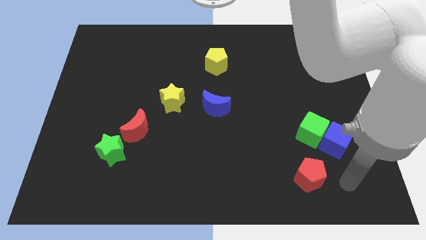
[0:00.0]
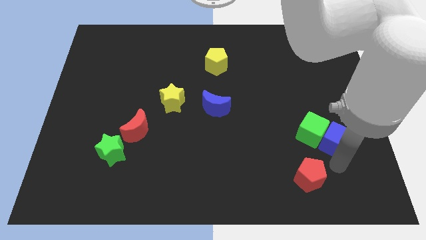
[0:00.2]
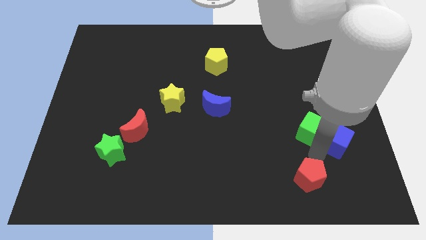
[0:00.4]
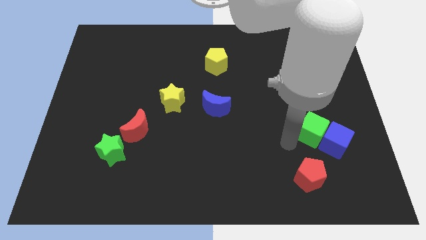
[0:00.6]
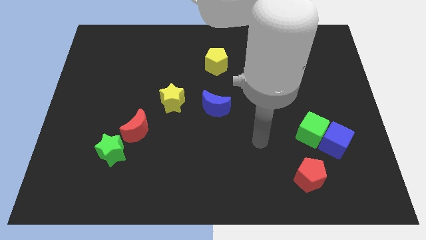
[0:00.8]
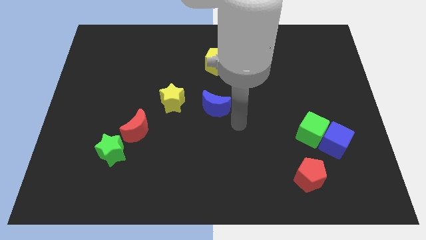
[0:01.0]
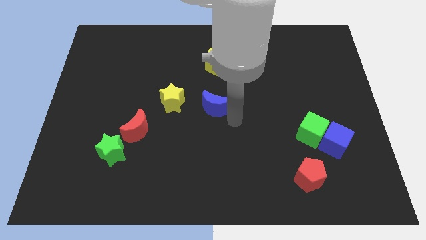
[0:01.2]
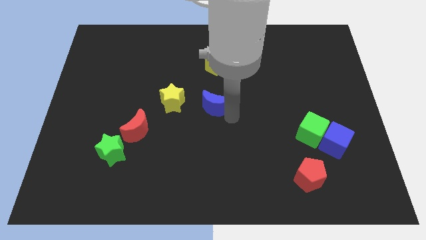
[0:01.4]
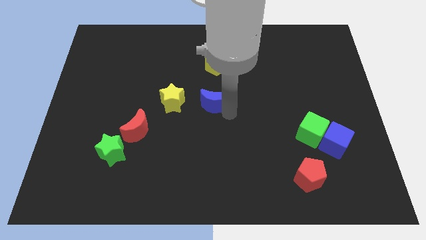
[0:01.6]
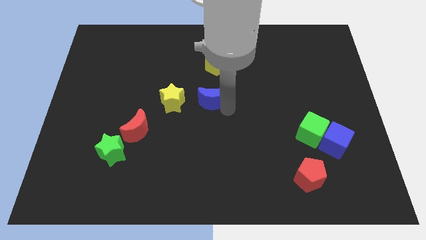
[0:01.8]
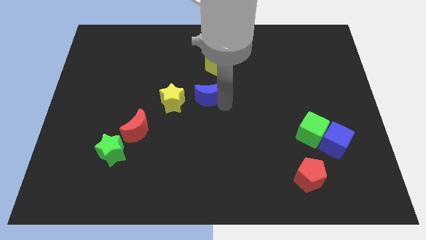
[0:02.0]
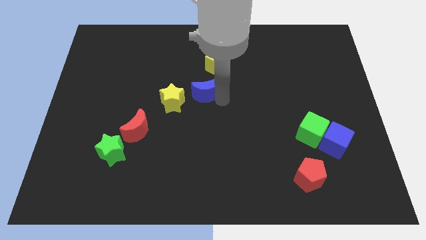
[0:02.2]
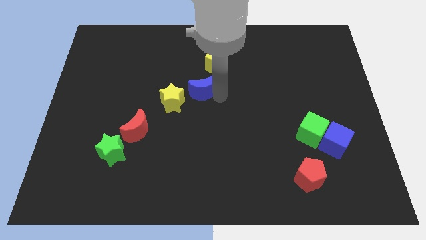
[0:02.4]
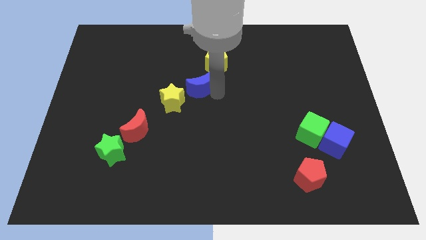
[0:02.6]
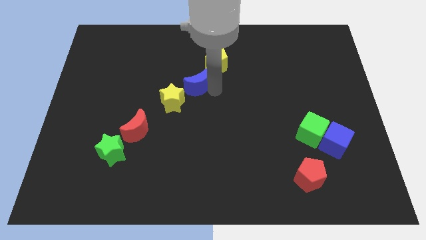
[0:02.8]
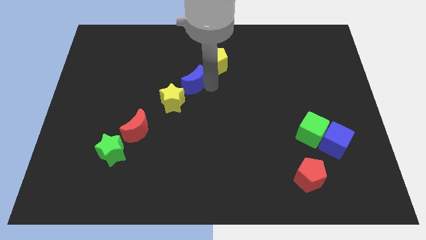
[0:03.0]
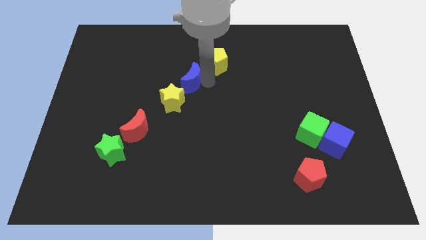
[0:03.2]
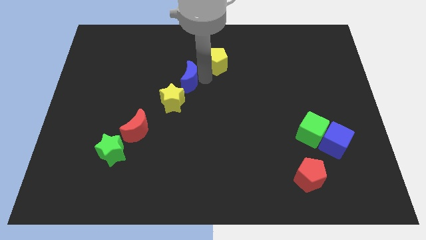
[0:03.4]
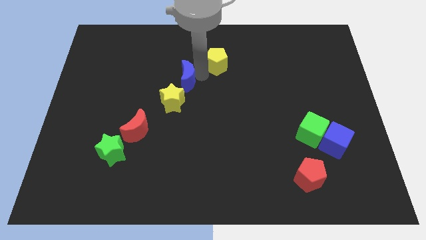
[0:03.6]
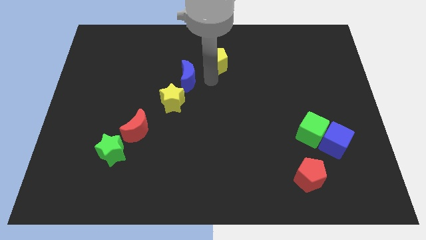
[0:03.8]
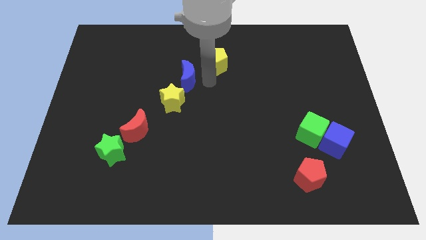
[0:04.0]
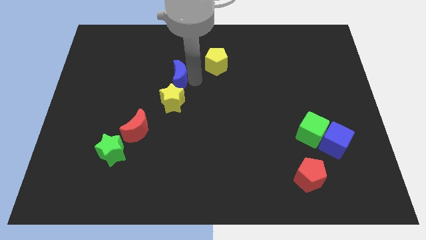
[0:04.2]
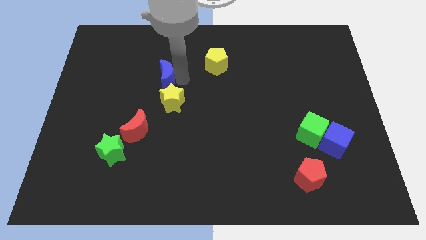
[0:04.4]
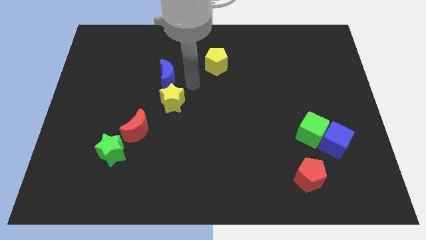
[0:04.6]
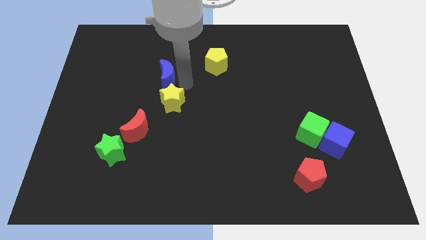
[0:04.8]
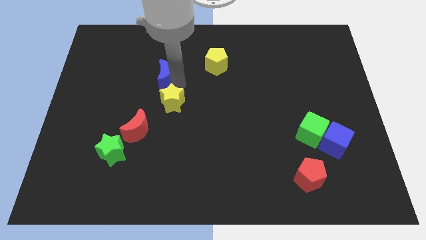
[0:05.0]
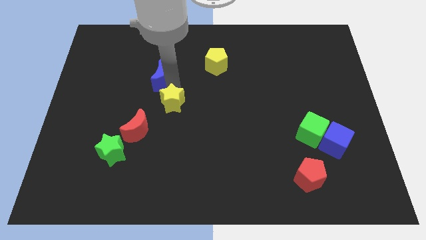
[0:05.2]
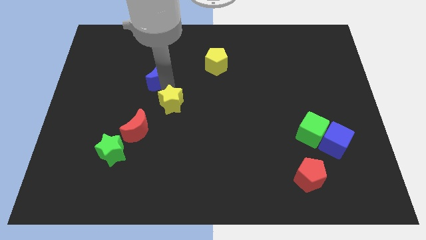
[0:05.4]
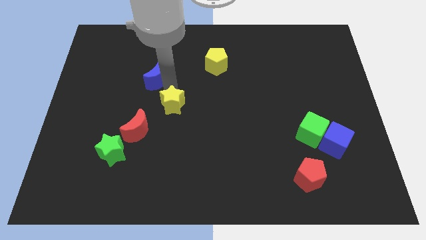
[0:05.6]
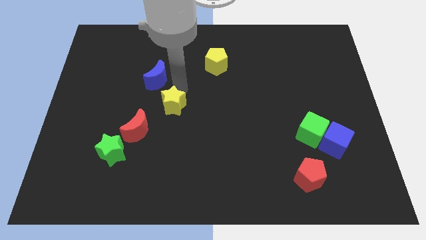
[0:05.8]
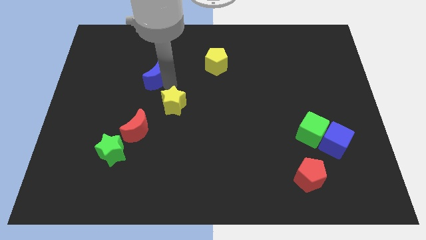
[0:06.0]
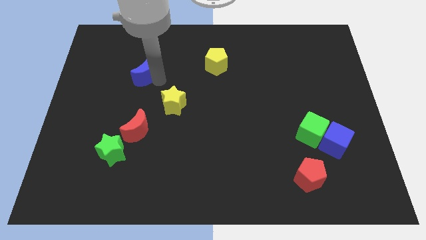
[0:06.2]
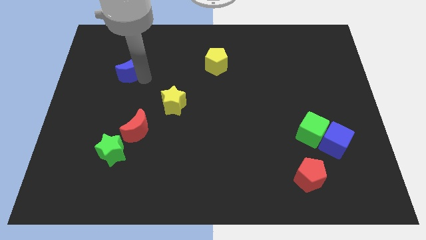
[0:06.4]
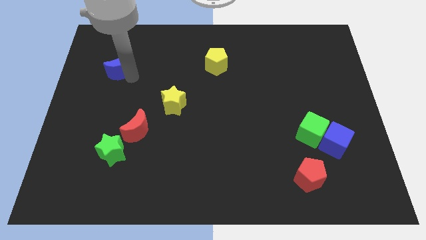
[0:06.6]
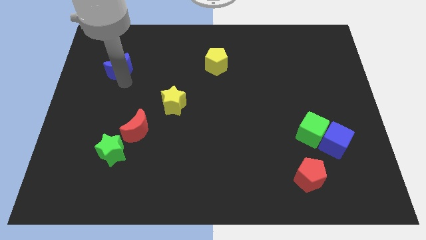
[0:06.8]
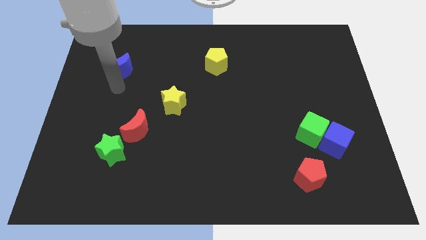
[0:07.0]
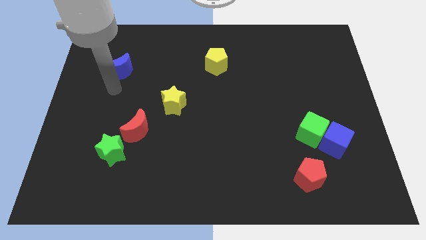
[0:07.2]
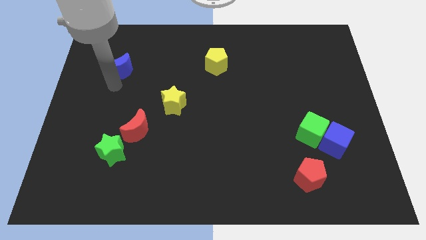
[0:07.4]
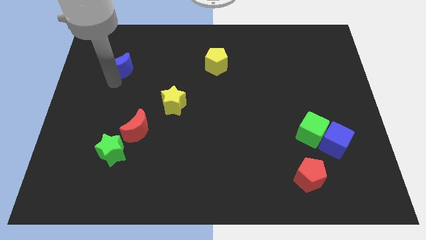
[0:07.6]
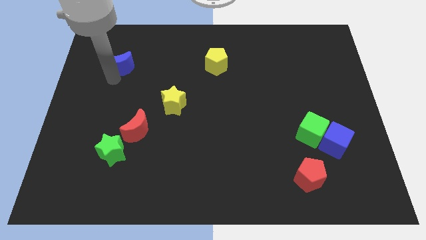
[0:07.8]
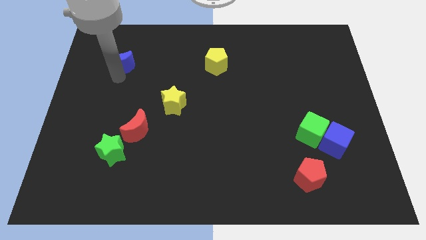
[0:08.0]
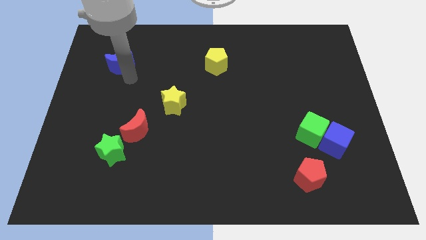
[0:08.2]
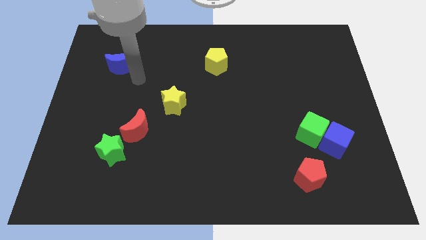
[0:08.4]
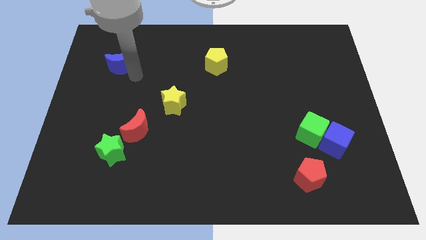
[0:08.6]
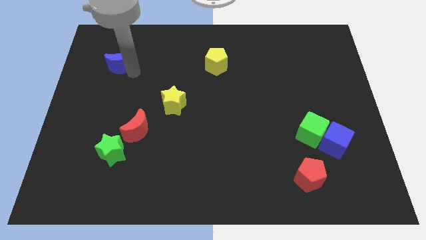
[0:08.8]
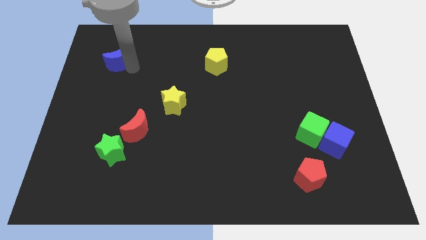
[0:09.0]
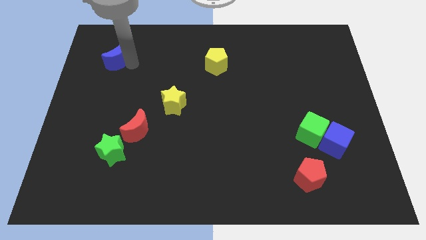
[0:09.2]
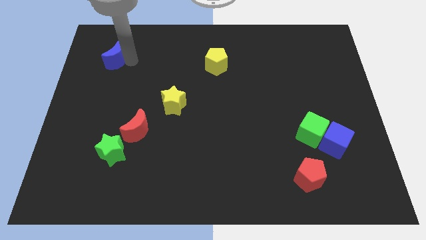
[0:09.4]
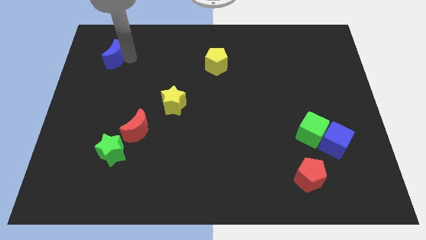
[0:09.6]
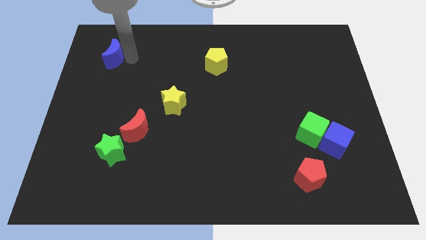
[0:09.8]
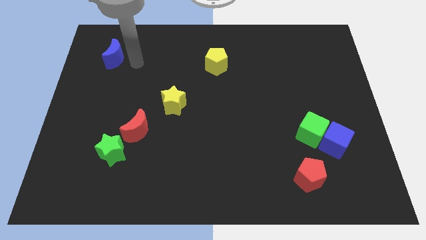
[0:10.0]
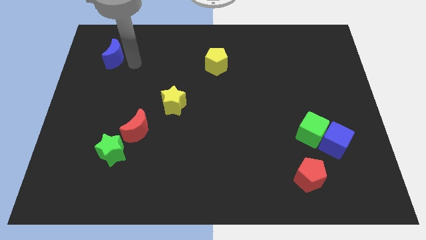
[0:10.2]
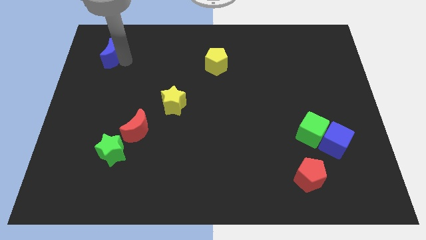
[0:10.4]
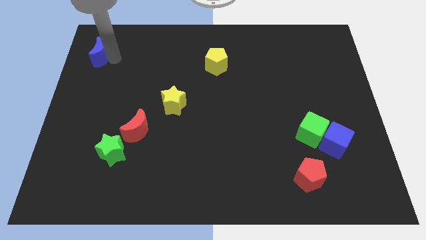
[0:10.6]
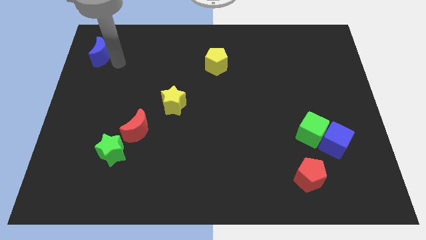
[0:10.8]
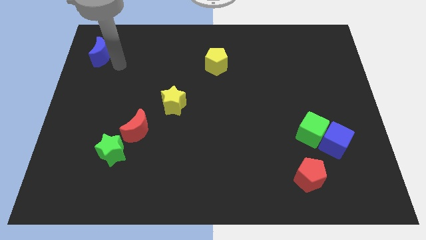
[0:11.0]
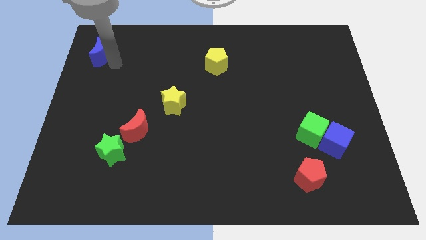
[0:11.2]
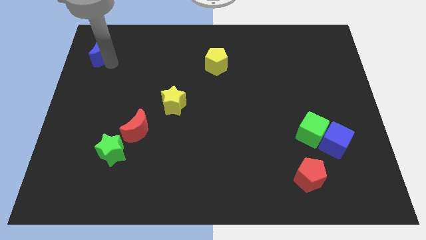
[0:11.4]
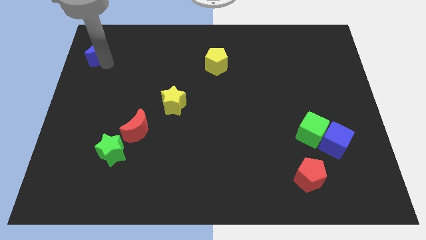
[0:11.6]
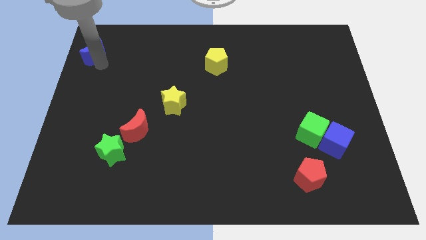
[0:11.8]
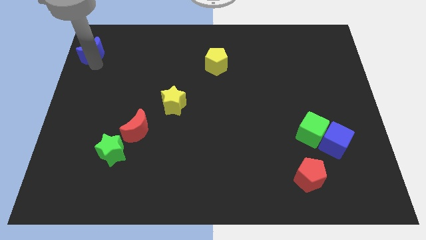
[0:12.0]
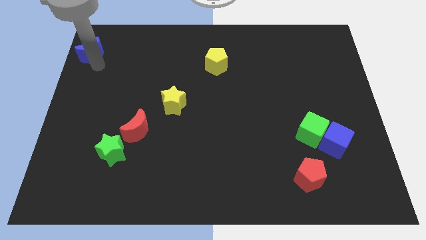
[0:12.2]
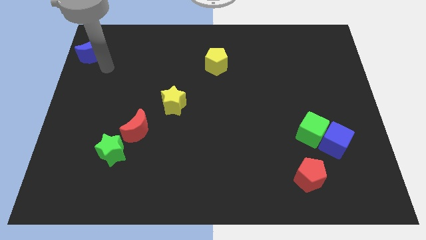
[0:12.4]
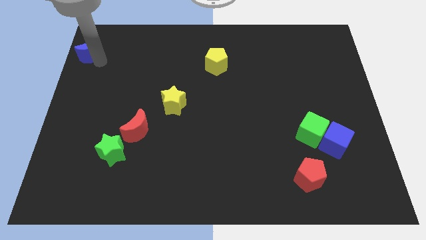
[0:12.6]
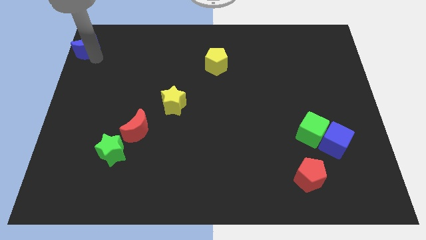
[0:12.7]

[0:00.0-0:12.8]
put the blue moon to the top left
